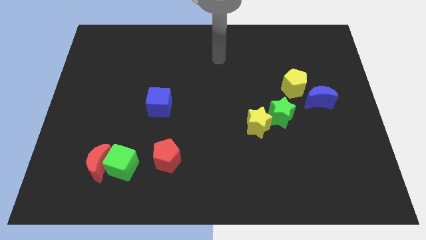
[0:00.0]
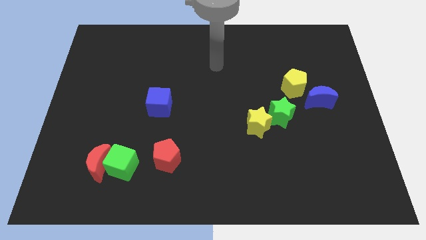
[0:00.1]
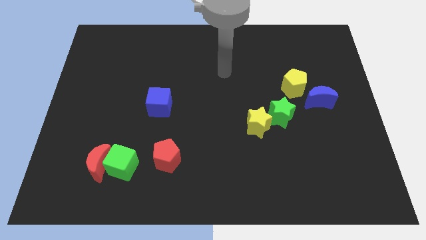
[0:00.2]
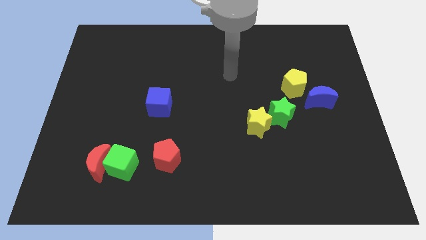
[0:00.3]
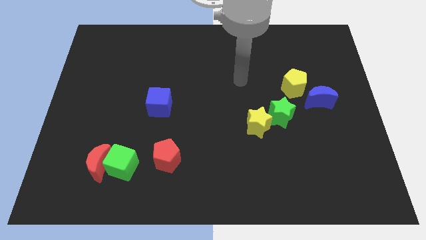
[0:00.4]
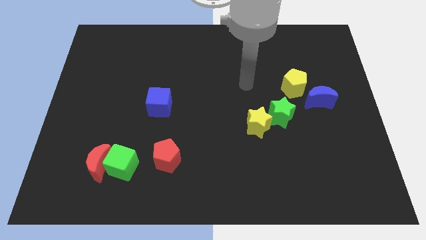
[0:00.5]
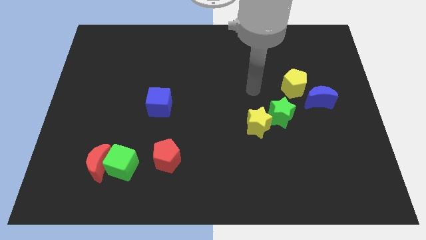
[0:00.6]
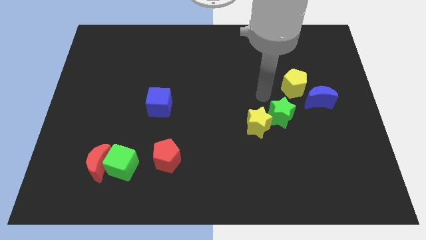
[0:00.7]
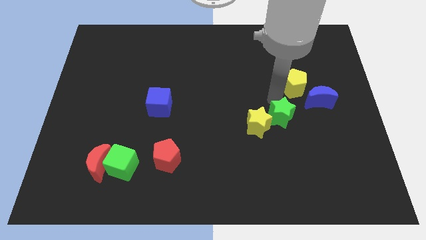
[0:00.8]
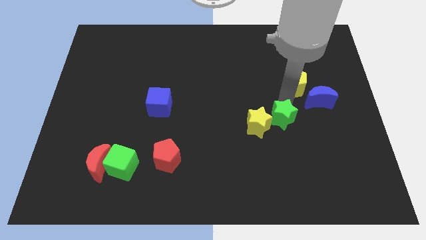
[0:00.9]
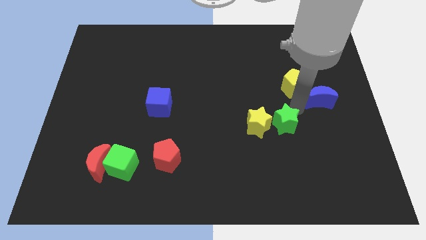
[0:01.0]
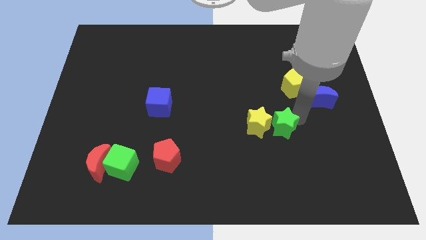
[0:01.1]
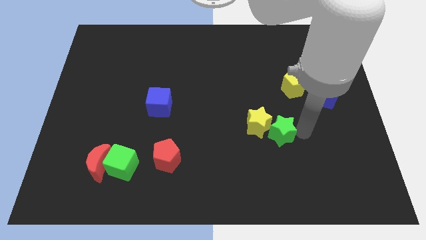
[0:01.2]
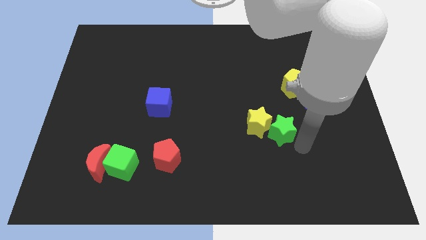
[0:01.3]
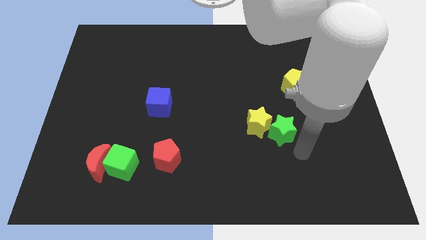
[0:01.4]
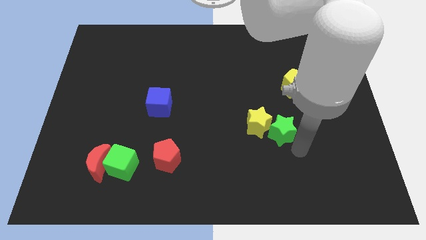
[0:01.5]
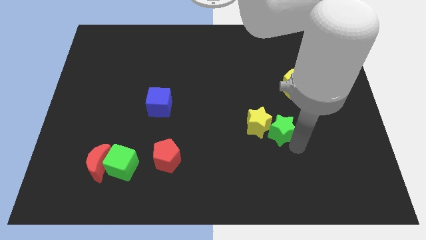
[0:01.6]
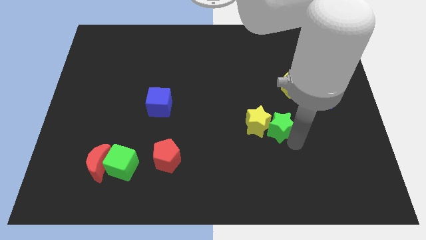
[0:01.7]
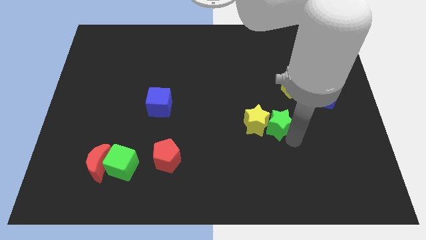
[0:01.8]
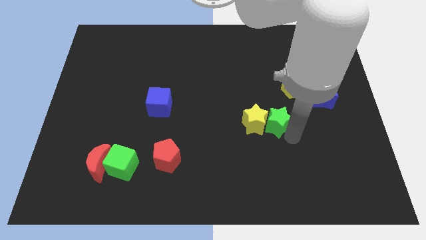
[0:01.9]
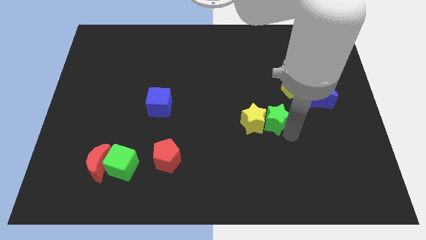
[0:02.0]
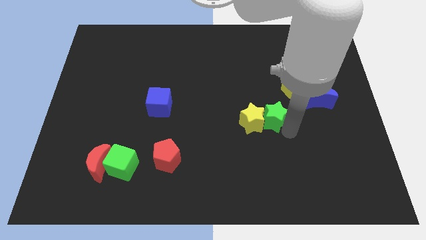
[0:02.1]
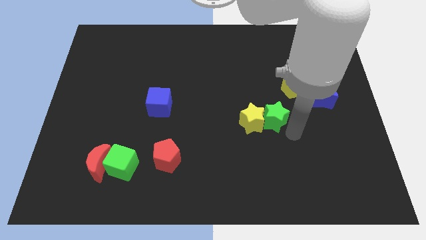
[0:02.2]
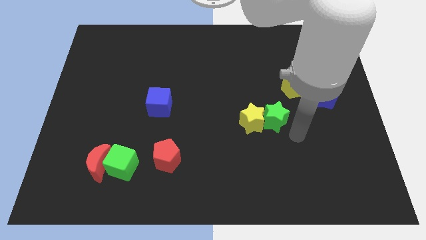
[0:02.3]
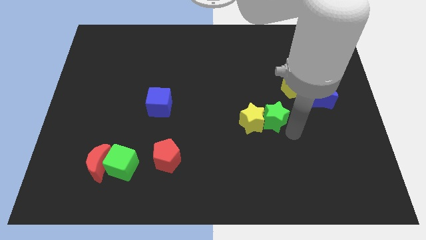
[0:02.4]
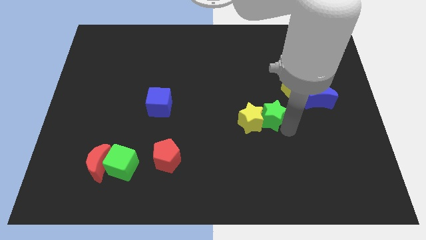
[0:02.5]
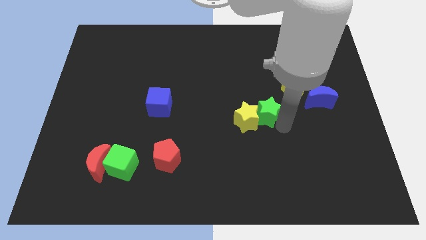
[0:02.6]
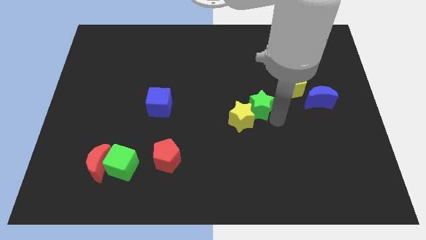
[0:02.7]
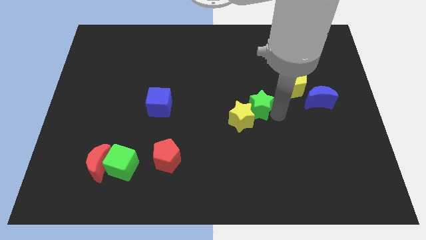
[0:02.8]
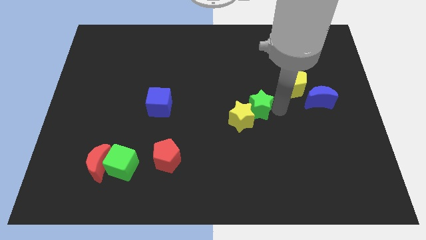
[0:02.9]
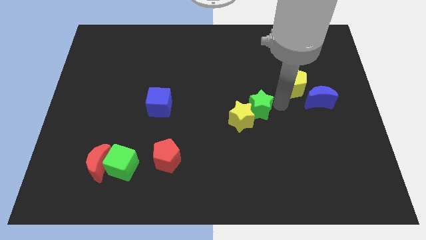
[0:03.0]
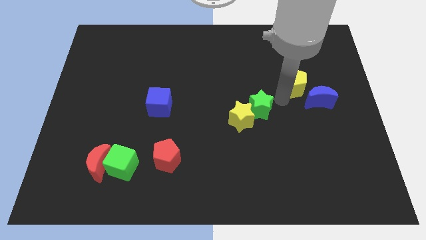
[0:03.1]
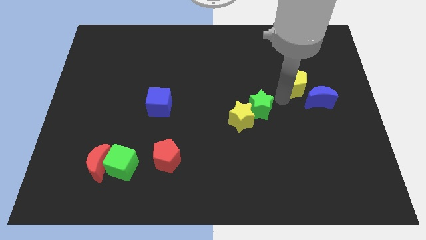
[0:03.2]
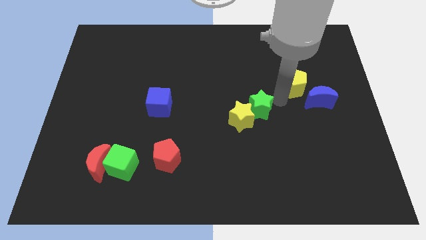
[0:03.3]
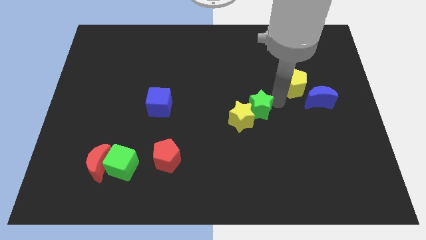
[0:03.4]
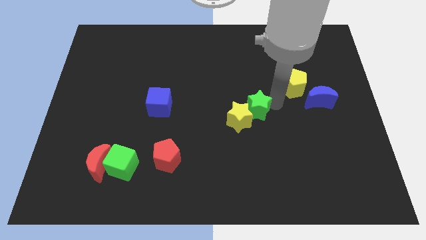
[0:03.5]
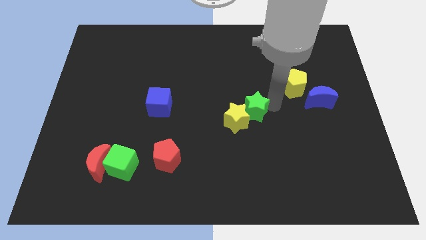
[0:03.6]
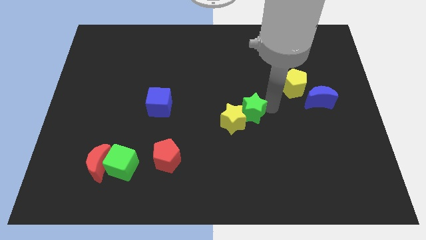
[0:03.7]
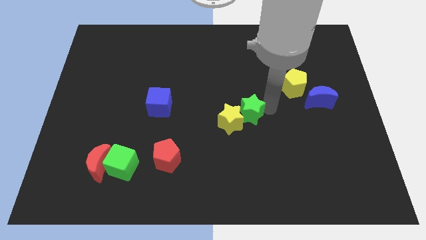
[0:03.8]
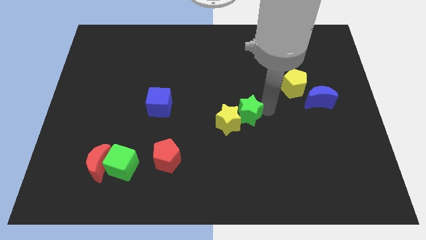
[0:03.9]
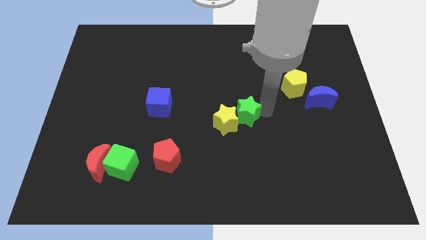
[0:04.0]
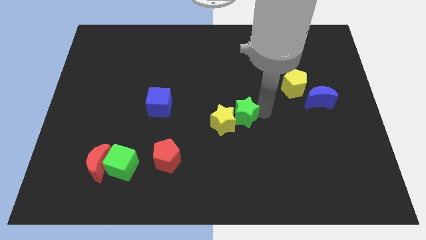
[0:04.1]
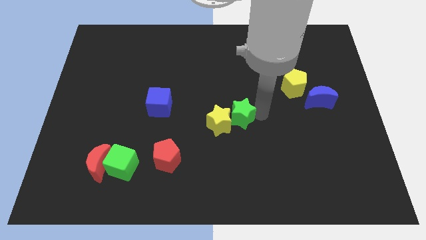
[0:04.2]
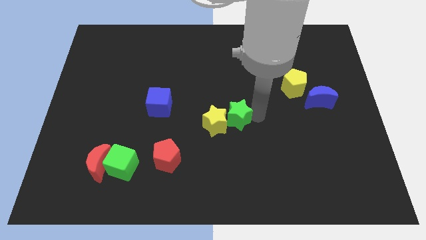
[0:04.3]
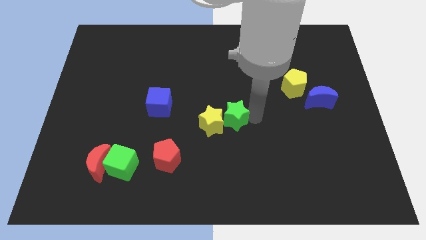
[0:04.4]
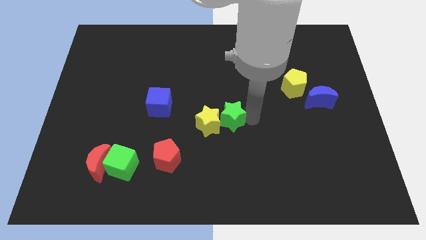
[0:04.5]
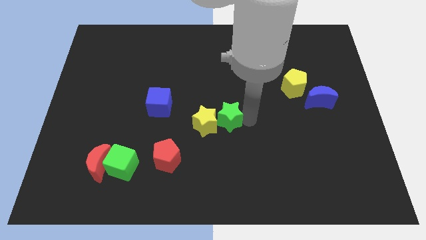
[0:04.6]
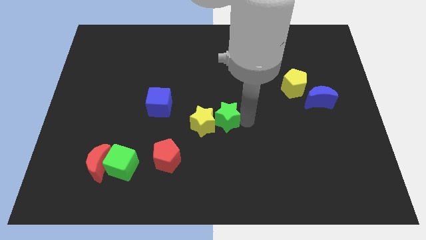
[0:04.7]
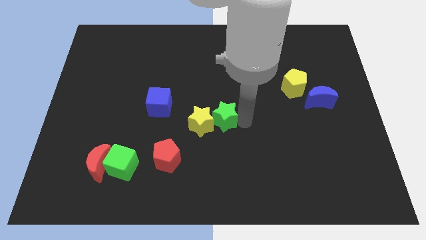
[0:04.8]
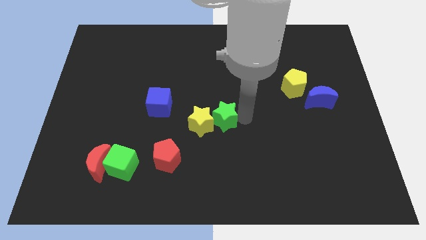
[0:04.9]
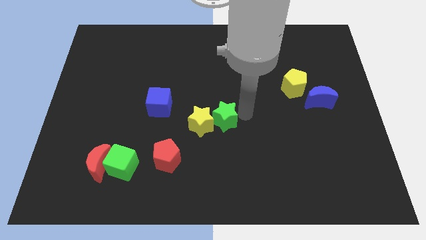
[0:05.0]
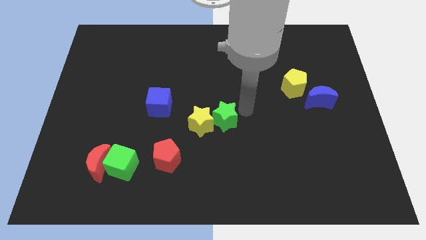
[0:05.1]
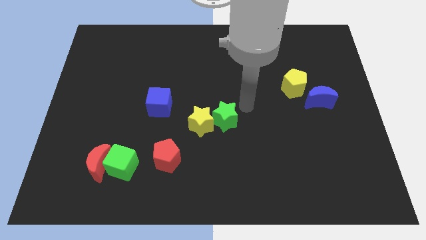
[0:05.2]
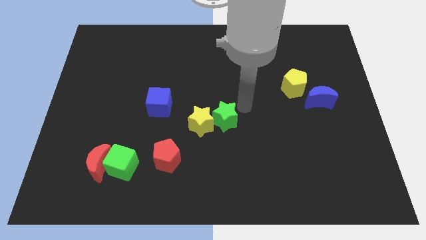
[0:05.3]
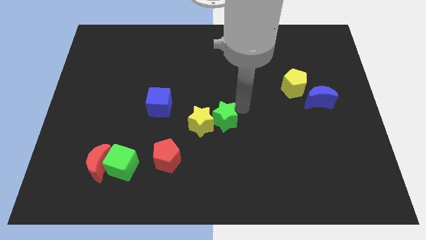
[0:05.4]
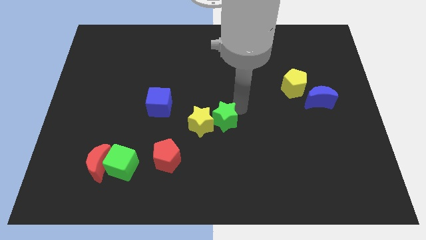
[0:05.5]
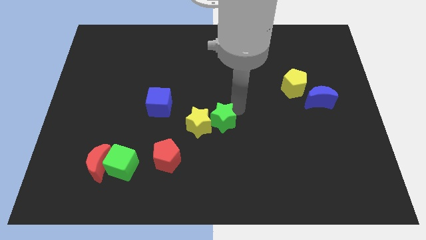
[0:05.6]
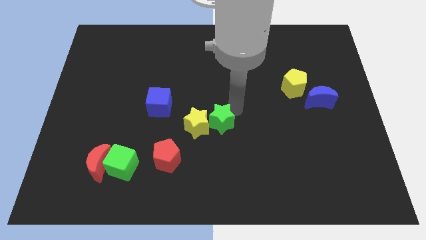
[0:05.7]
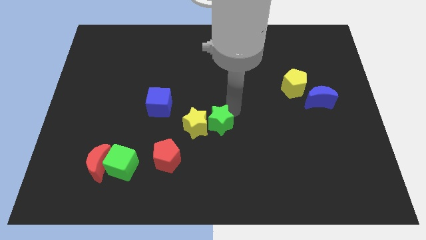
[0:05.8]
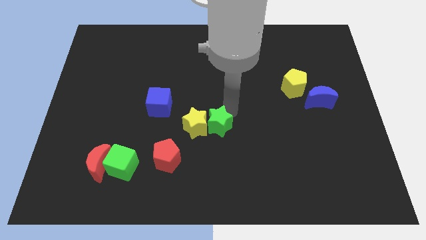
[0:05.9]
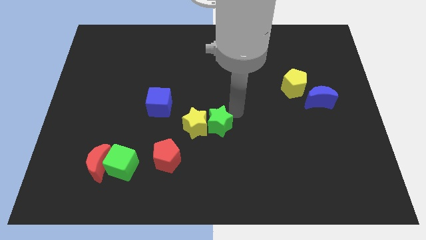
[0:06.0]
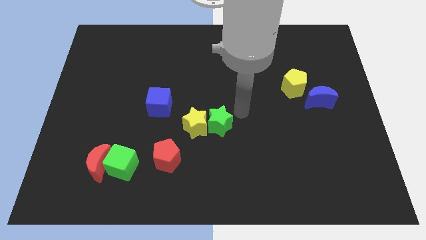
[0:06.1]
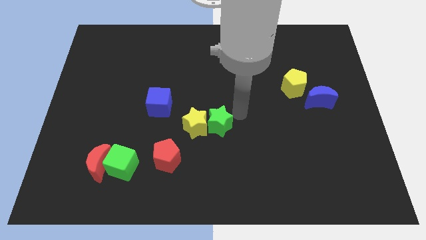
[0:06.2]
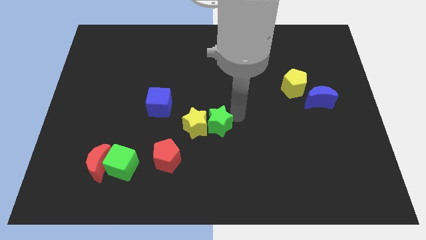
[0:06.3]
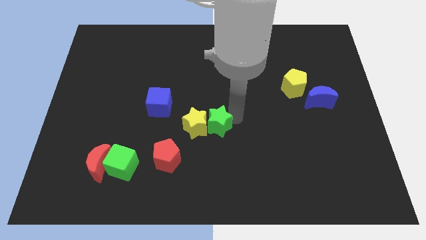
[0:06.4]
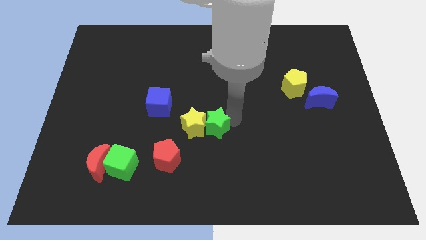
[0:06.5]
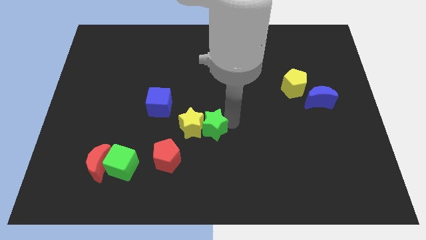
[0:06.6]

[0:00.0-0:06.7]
put the green star to the top right side of the red pentagon

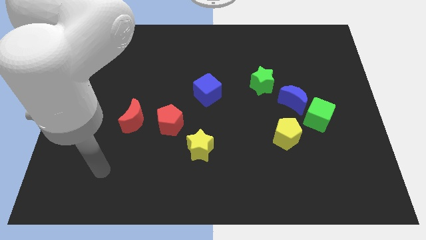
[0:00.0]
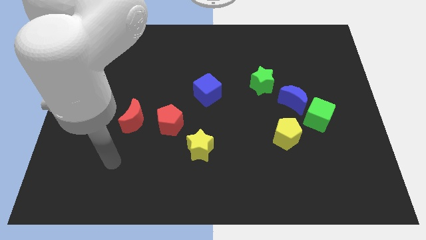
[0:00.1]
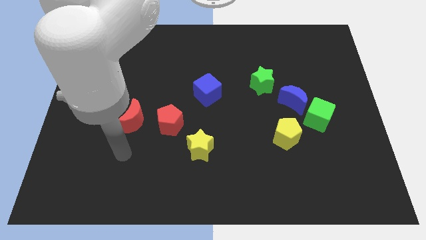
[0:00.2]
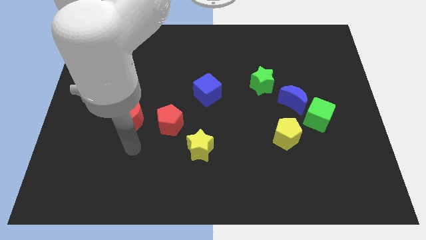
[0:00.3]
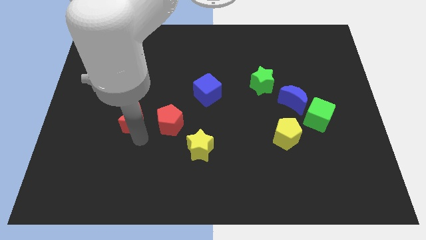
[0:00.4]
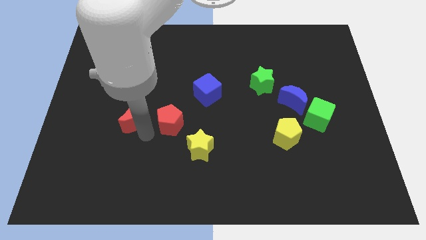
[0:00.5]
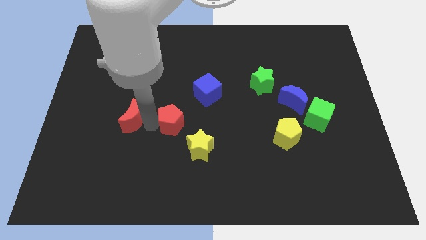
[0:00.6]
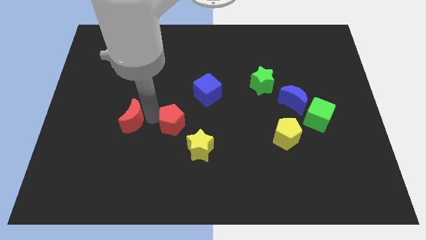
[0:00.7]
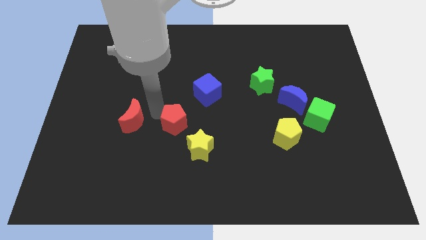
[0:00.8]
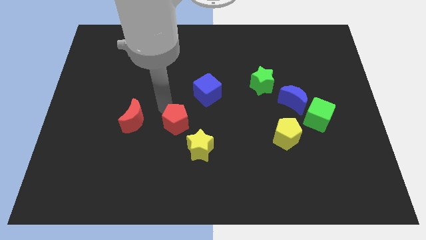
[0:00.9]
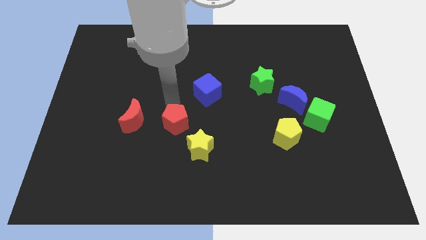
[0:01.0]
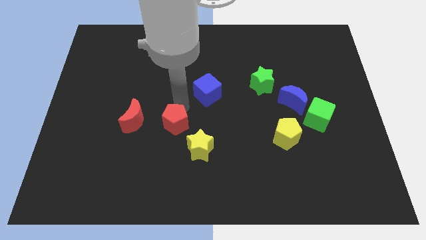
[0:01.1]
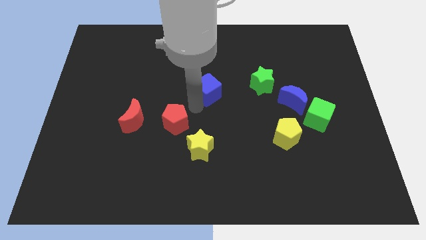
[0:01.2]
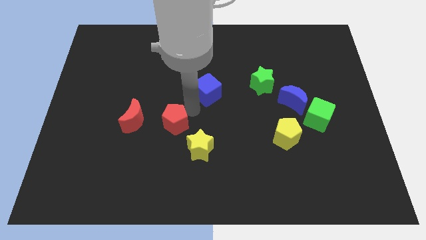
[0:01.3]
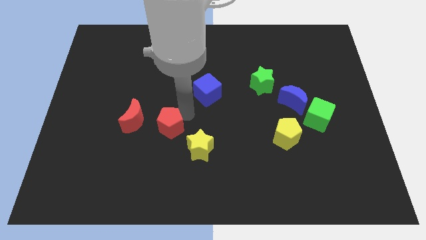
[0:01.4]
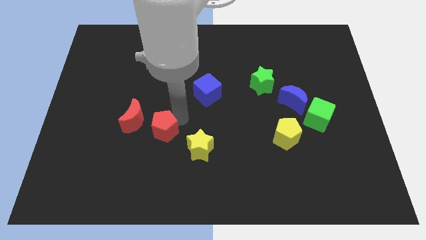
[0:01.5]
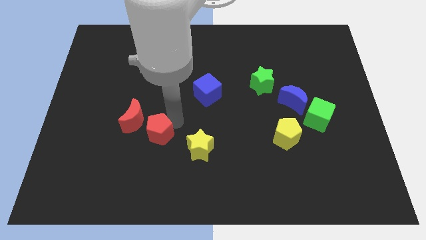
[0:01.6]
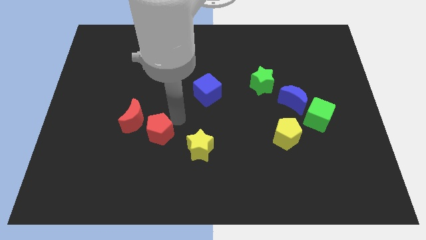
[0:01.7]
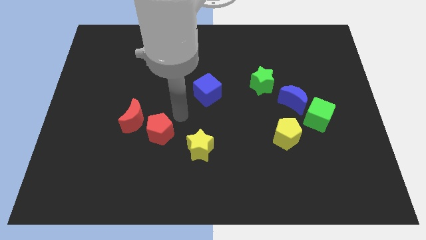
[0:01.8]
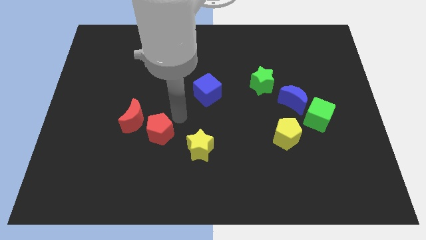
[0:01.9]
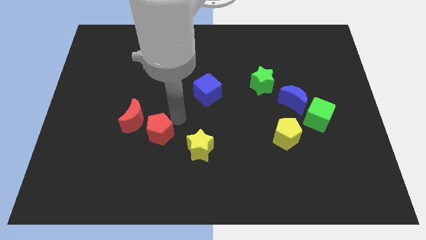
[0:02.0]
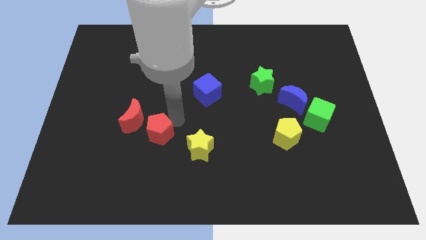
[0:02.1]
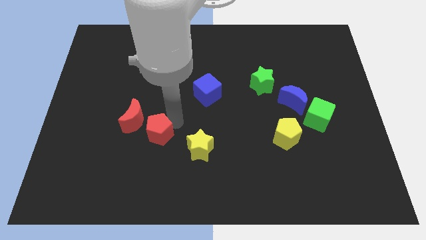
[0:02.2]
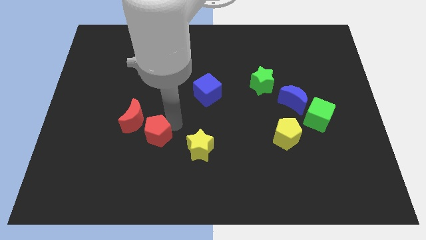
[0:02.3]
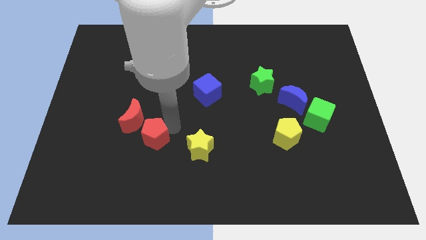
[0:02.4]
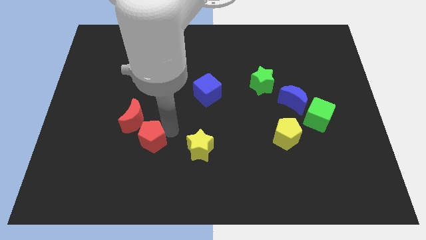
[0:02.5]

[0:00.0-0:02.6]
move the red pentagon below the red moon
